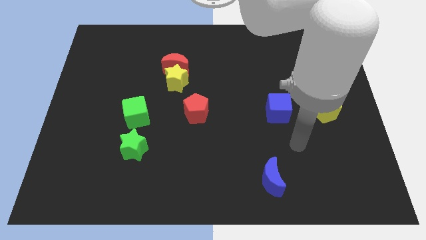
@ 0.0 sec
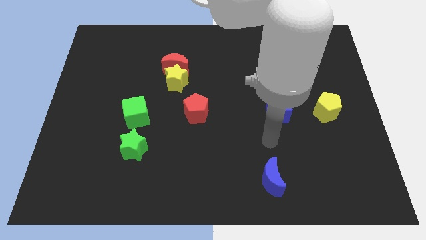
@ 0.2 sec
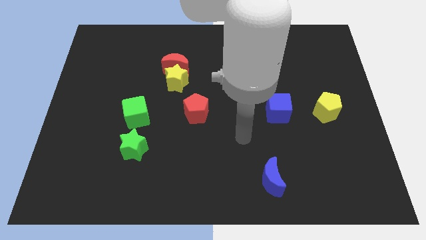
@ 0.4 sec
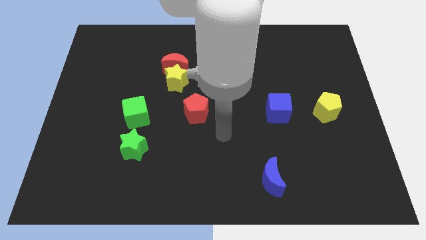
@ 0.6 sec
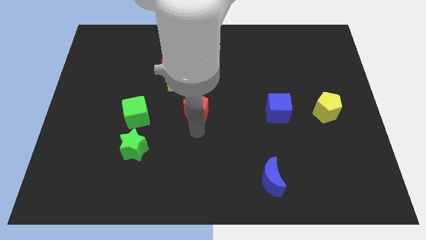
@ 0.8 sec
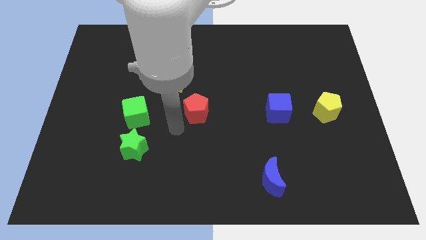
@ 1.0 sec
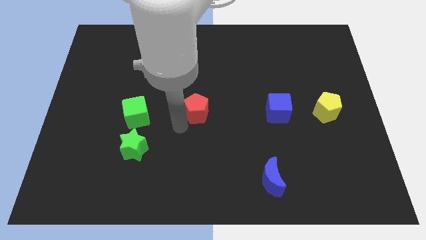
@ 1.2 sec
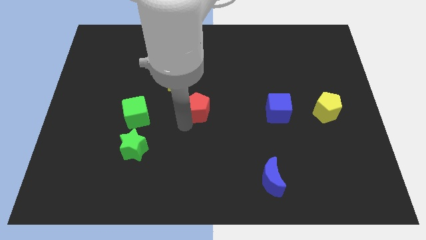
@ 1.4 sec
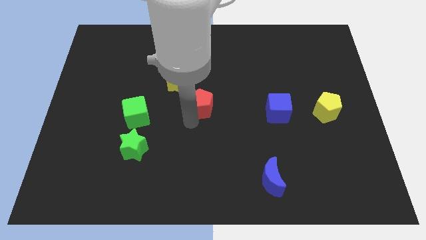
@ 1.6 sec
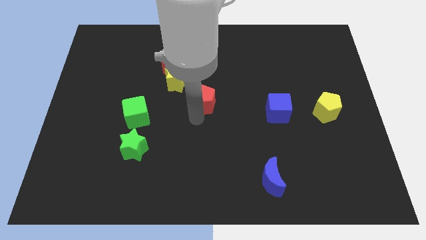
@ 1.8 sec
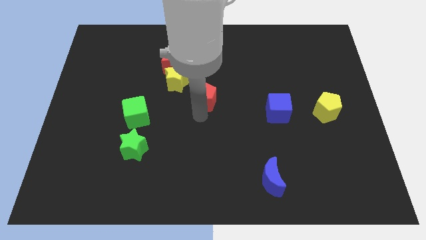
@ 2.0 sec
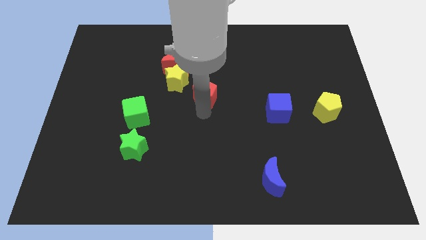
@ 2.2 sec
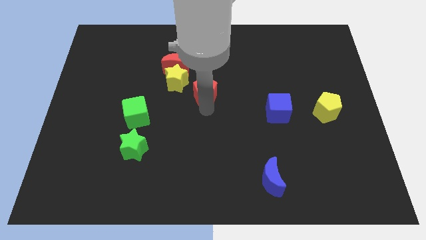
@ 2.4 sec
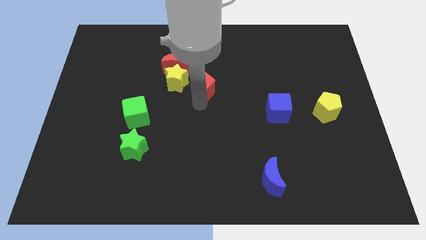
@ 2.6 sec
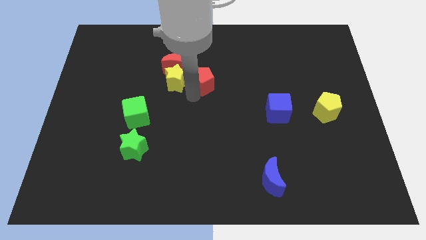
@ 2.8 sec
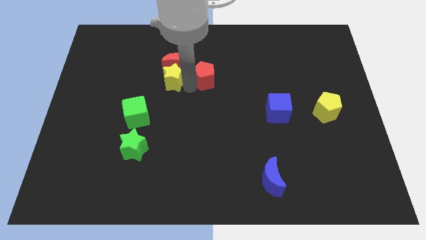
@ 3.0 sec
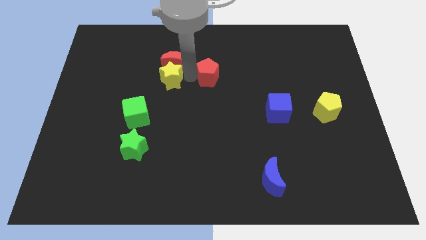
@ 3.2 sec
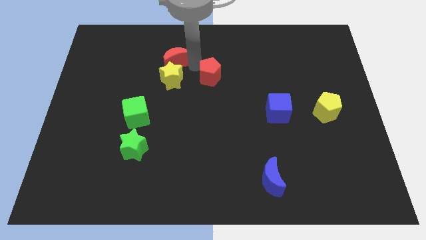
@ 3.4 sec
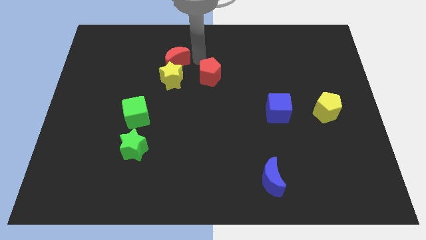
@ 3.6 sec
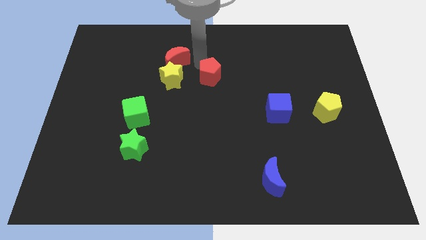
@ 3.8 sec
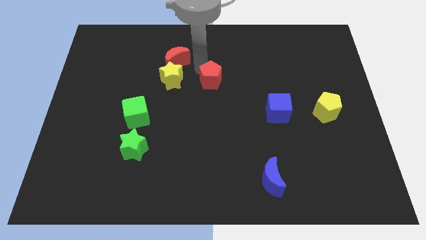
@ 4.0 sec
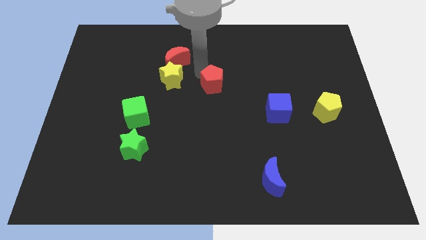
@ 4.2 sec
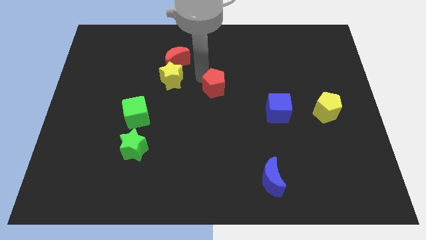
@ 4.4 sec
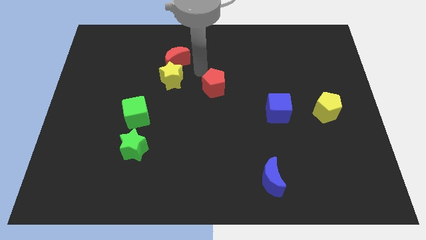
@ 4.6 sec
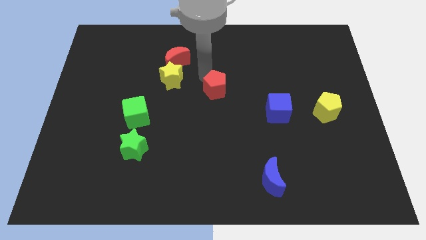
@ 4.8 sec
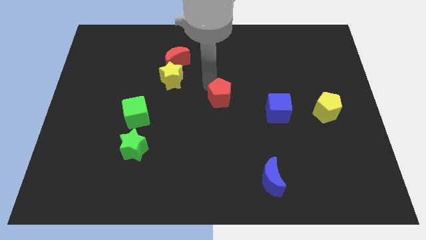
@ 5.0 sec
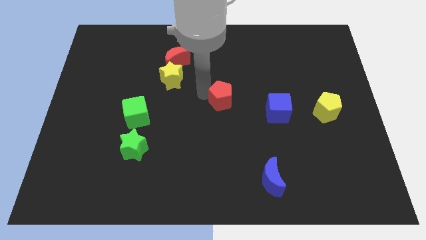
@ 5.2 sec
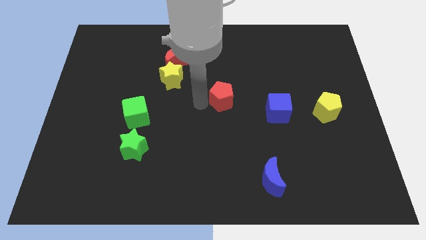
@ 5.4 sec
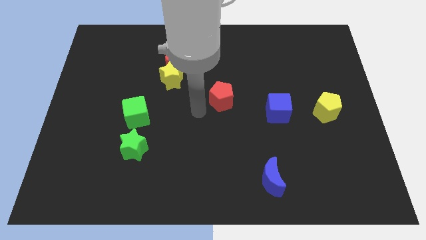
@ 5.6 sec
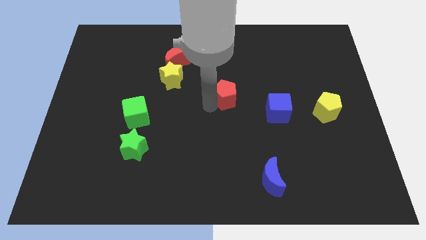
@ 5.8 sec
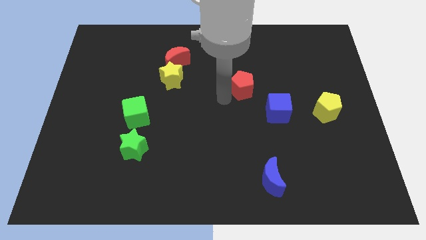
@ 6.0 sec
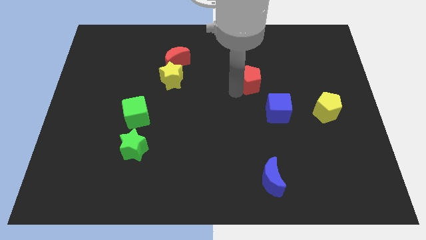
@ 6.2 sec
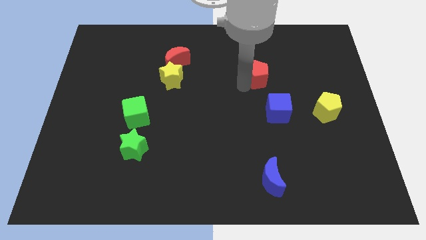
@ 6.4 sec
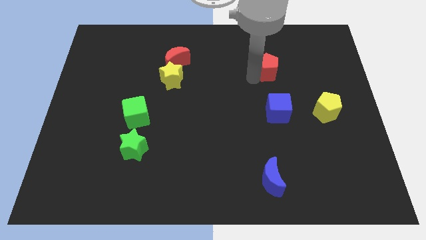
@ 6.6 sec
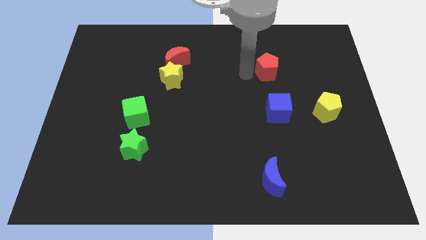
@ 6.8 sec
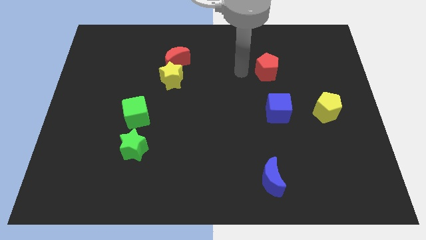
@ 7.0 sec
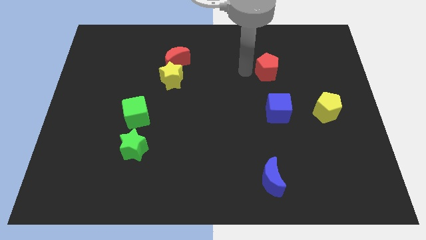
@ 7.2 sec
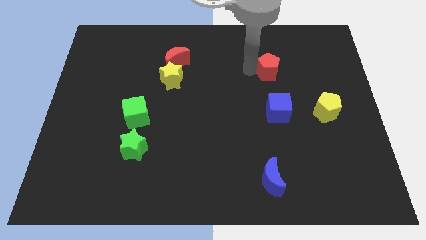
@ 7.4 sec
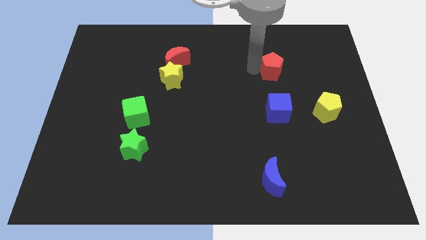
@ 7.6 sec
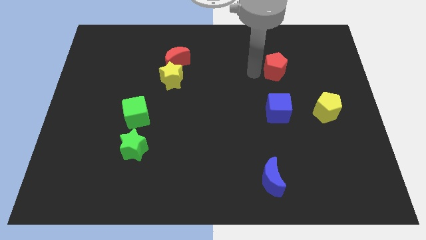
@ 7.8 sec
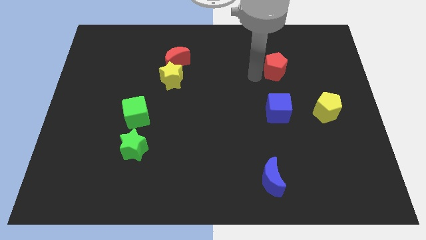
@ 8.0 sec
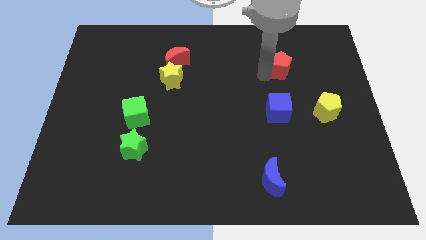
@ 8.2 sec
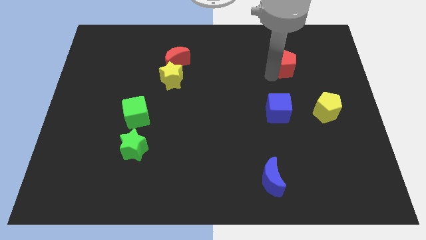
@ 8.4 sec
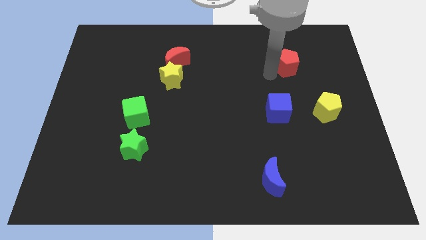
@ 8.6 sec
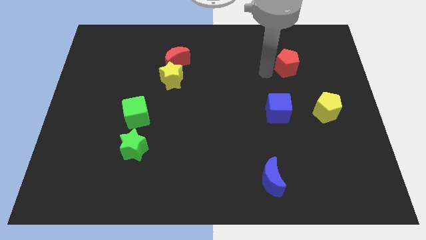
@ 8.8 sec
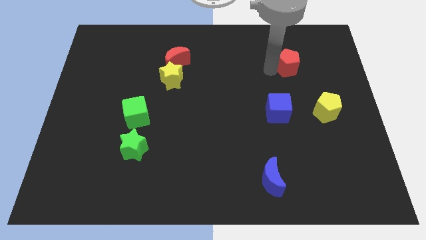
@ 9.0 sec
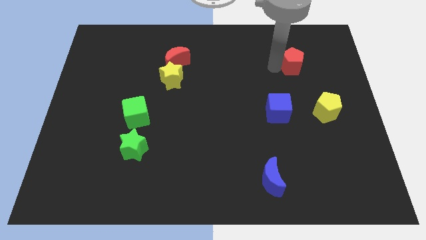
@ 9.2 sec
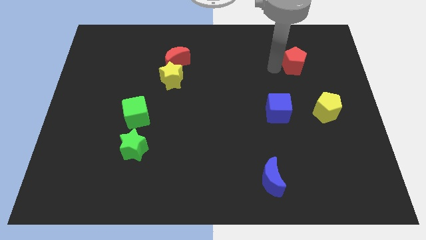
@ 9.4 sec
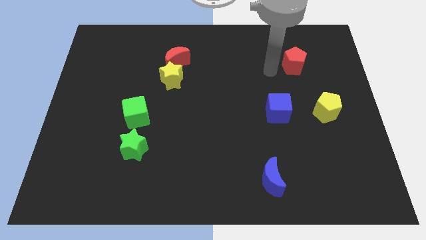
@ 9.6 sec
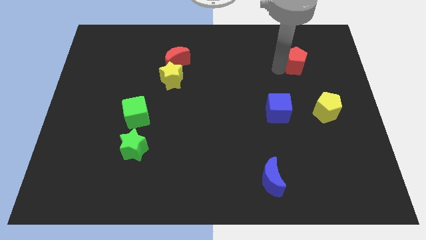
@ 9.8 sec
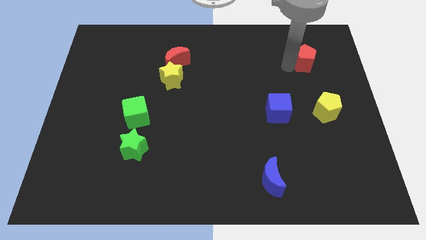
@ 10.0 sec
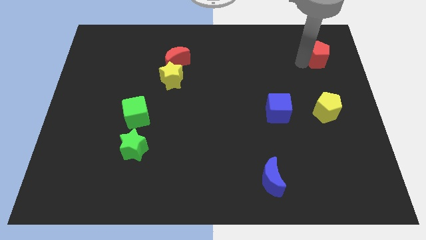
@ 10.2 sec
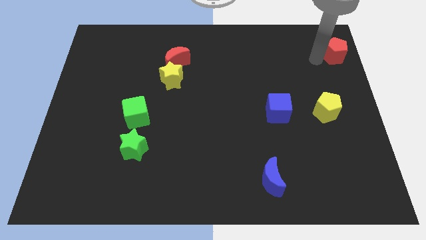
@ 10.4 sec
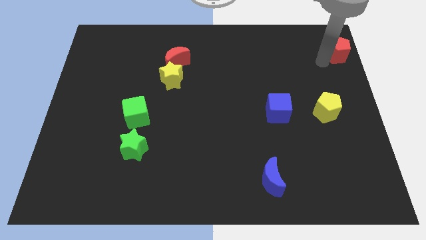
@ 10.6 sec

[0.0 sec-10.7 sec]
slide the red pentagon to the top right of the board

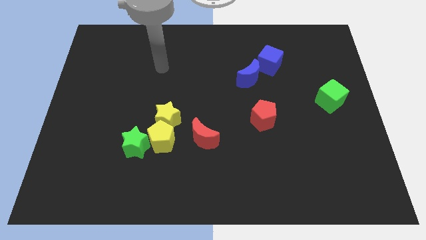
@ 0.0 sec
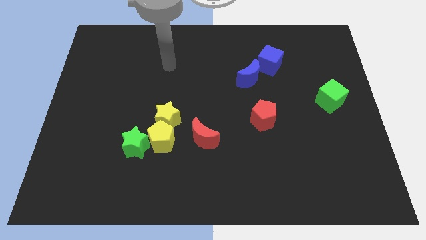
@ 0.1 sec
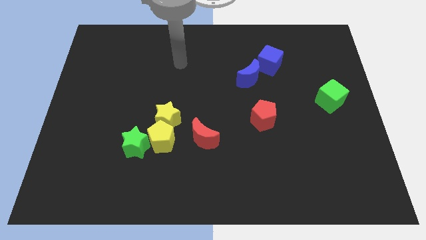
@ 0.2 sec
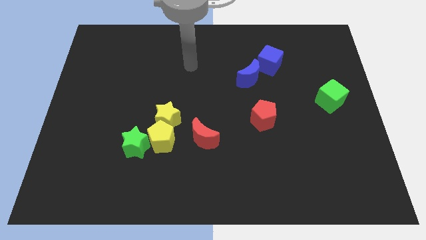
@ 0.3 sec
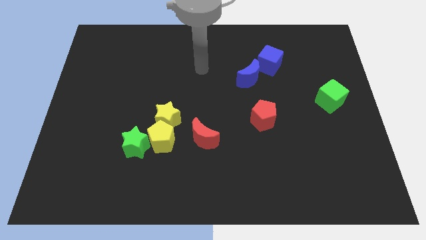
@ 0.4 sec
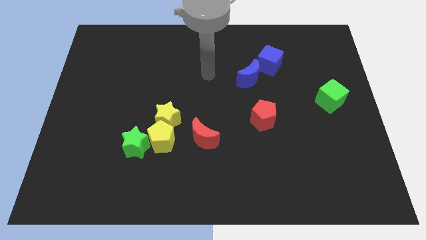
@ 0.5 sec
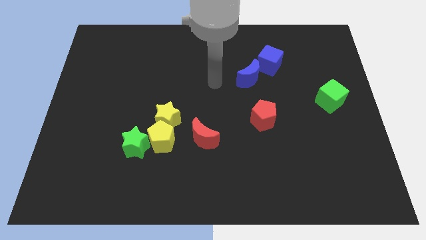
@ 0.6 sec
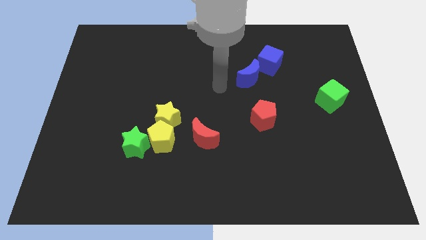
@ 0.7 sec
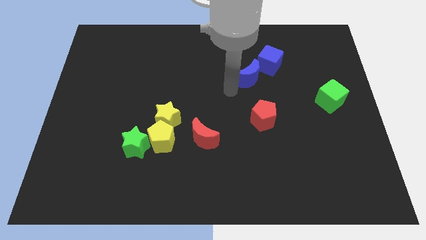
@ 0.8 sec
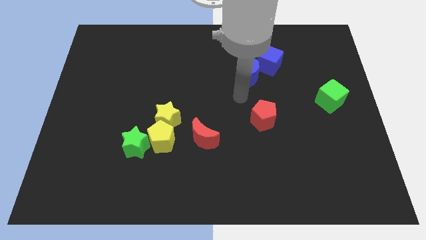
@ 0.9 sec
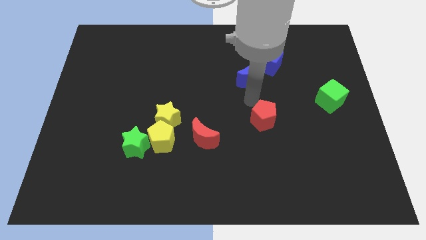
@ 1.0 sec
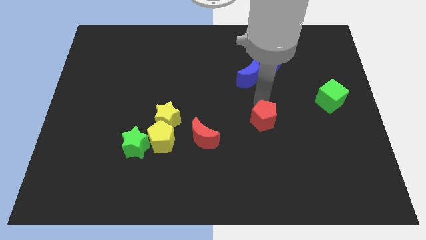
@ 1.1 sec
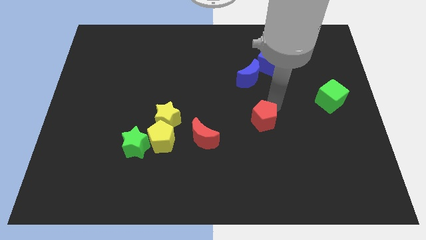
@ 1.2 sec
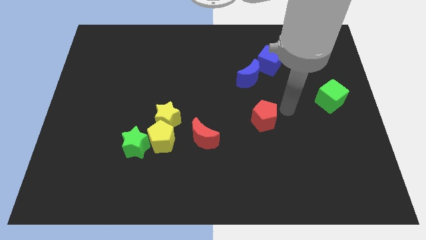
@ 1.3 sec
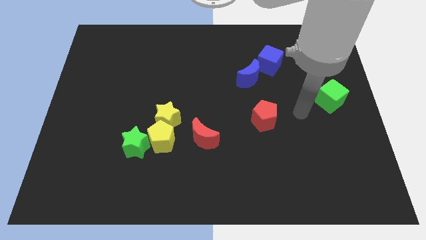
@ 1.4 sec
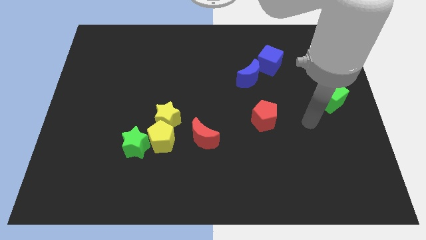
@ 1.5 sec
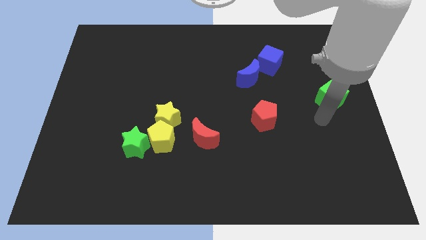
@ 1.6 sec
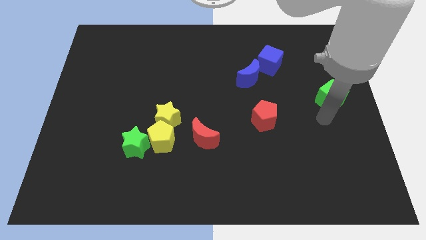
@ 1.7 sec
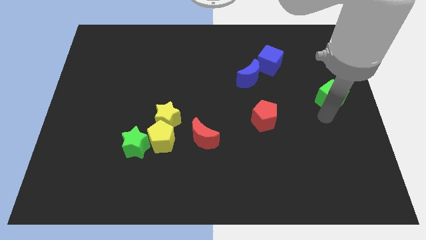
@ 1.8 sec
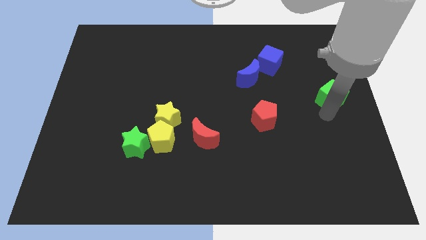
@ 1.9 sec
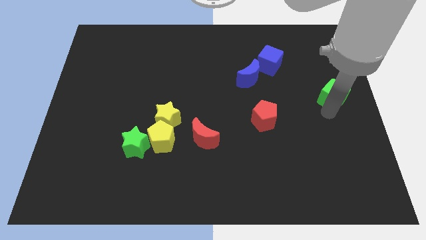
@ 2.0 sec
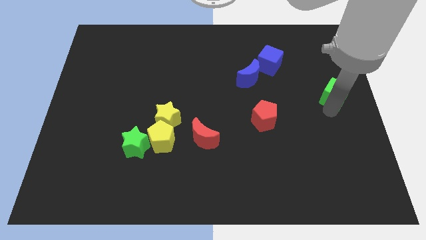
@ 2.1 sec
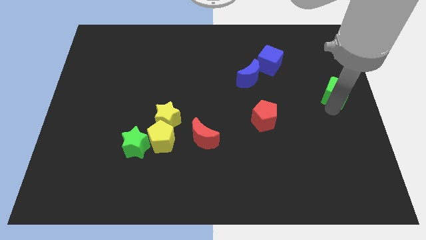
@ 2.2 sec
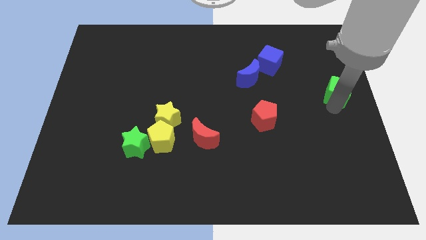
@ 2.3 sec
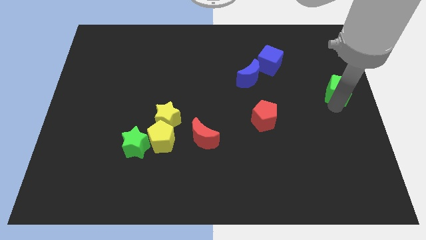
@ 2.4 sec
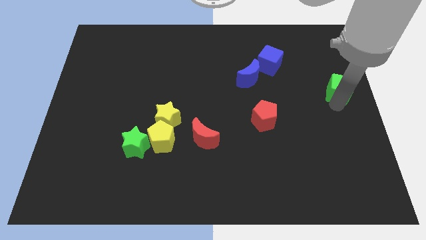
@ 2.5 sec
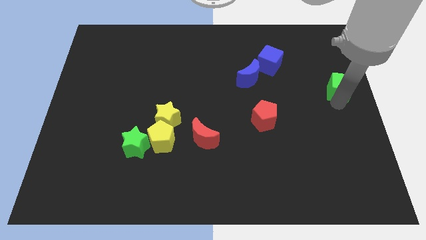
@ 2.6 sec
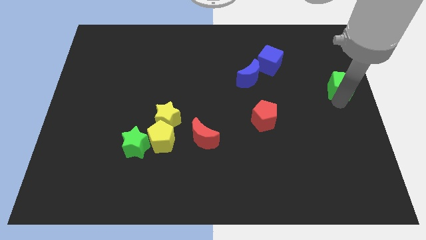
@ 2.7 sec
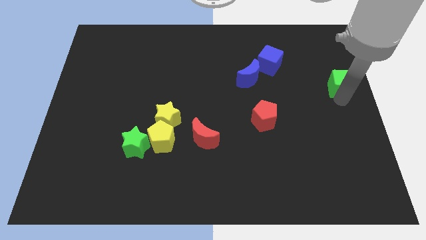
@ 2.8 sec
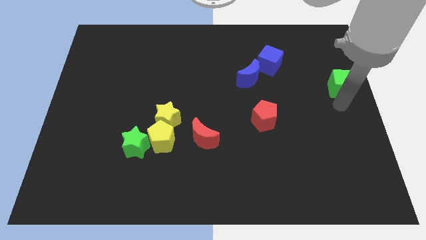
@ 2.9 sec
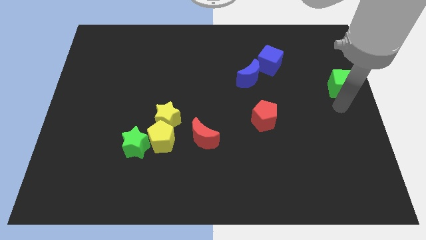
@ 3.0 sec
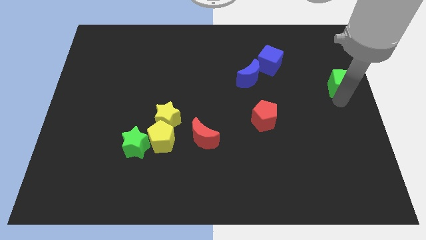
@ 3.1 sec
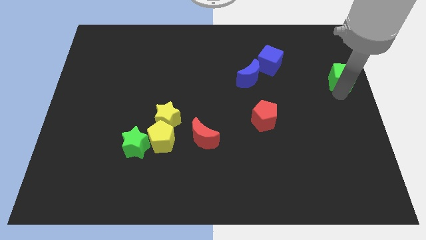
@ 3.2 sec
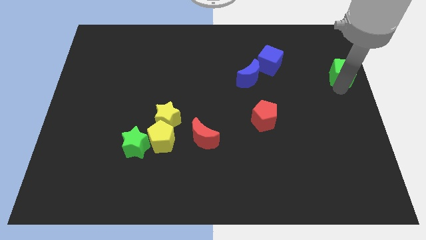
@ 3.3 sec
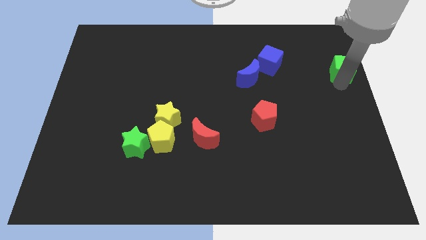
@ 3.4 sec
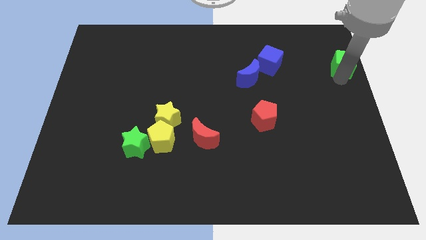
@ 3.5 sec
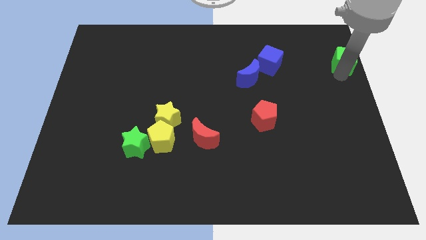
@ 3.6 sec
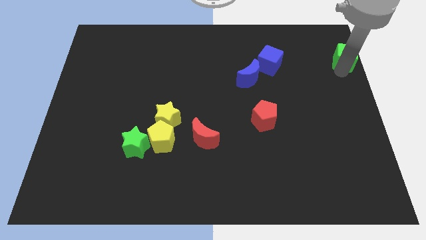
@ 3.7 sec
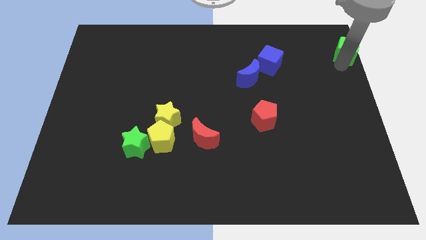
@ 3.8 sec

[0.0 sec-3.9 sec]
slide the green cube to the upper right corner
